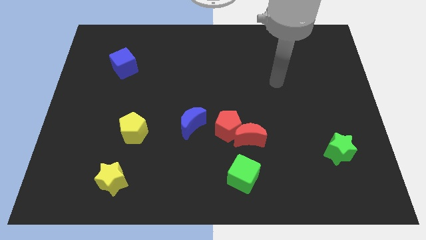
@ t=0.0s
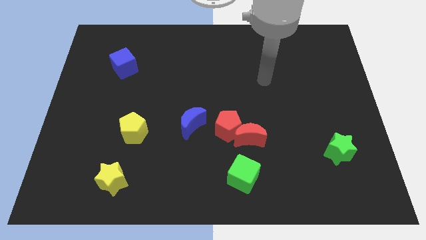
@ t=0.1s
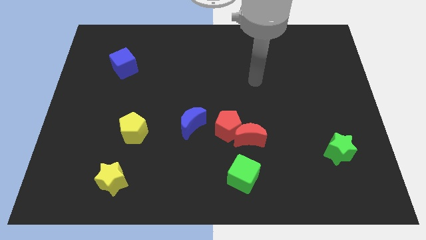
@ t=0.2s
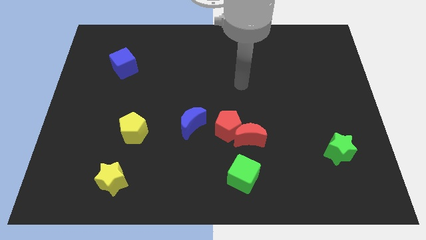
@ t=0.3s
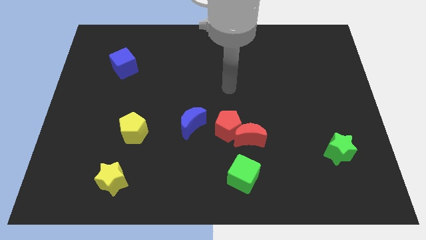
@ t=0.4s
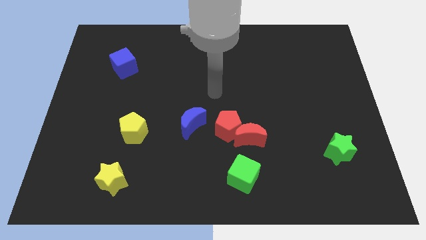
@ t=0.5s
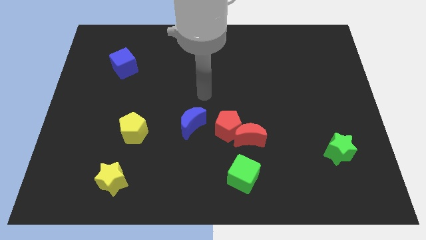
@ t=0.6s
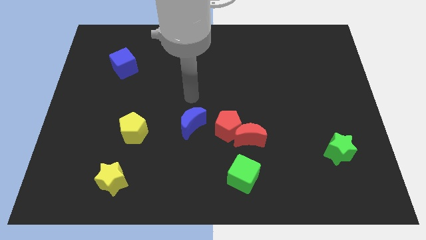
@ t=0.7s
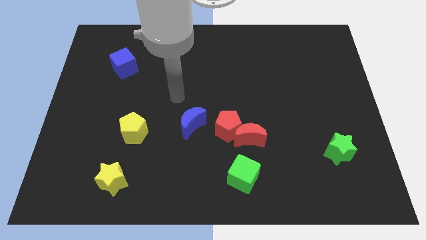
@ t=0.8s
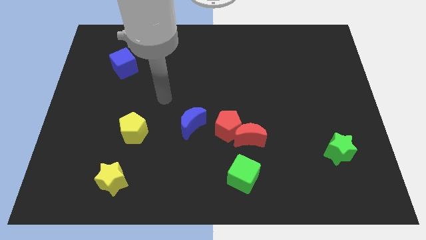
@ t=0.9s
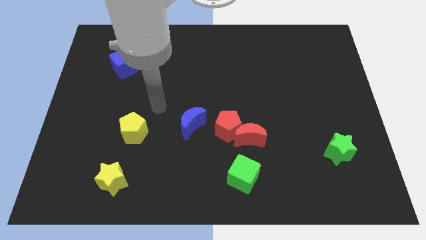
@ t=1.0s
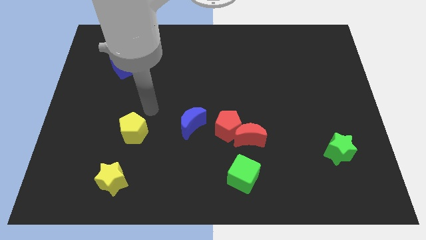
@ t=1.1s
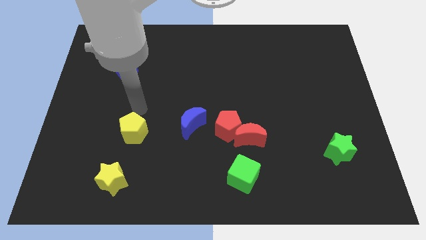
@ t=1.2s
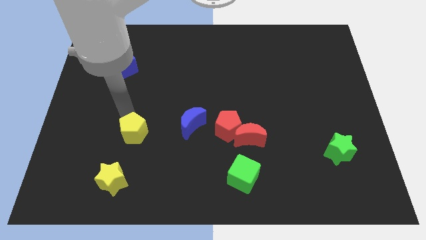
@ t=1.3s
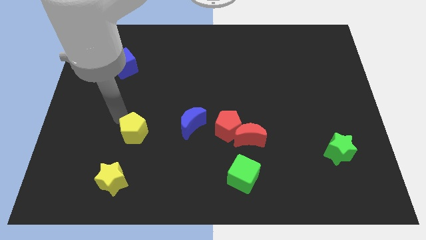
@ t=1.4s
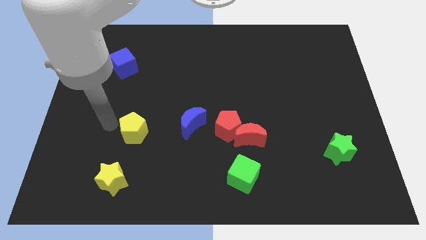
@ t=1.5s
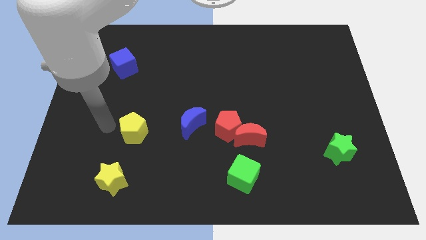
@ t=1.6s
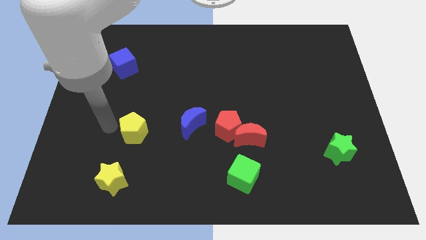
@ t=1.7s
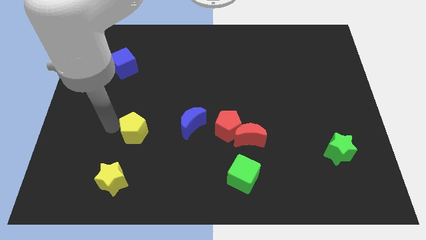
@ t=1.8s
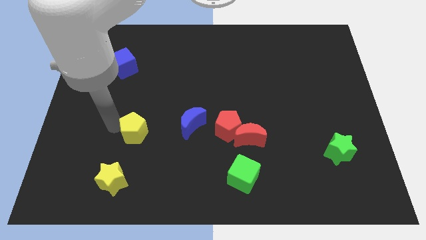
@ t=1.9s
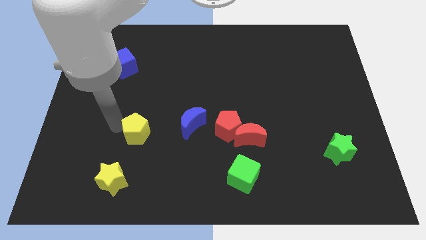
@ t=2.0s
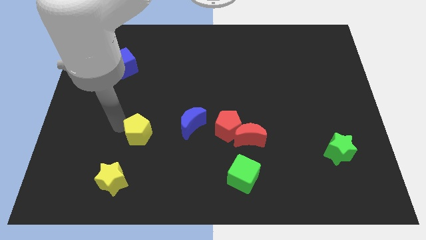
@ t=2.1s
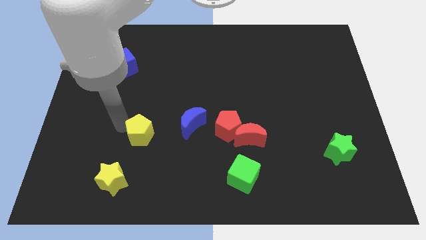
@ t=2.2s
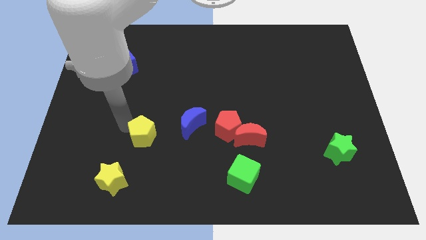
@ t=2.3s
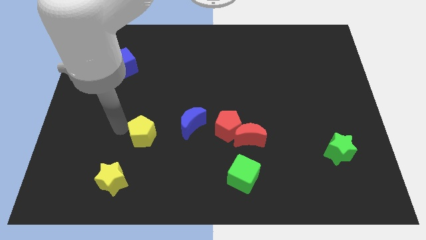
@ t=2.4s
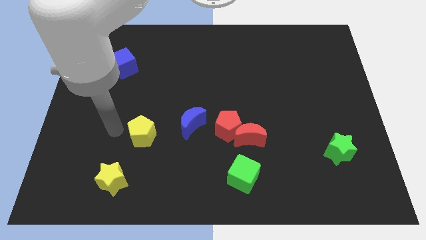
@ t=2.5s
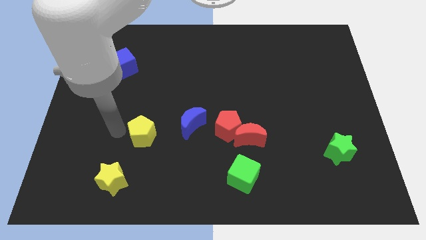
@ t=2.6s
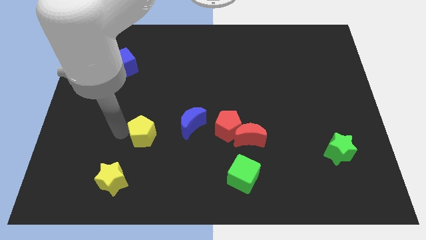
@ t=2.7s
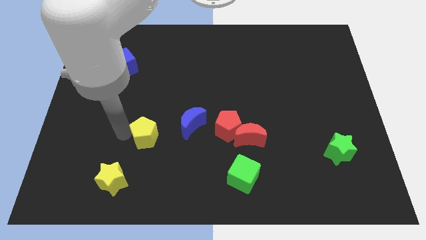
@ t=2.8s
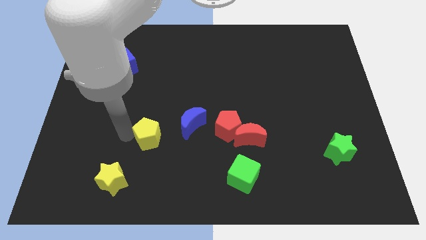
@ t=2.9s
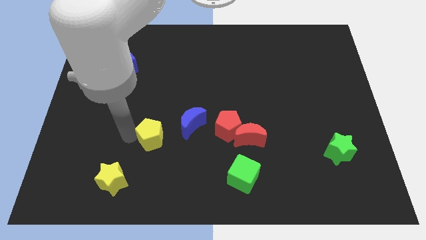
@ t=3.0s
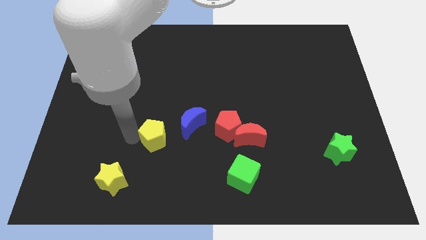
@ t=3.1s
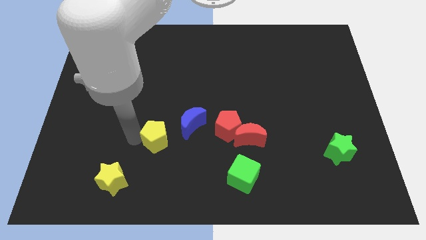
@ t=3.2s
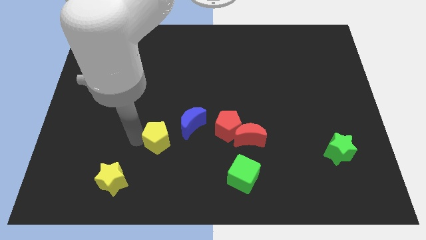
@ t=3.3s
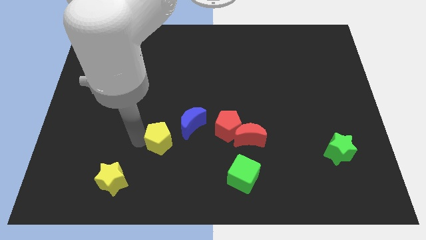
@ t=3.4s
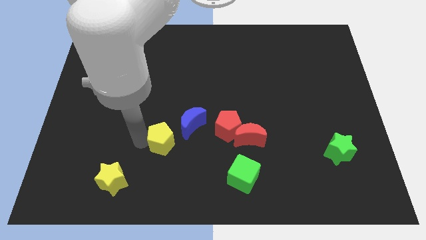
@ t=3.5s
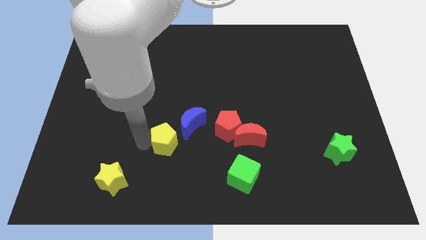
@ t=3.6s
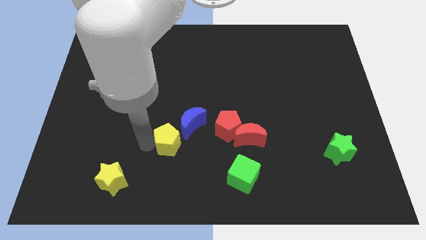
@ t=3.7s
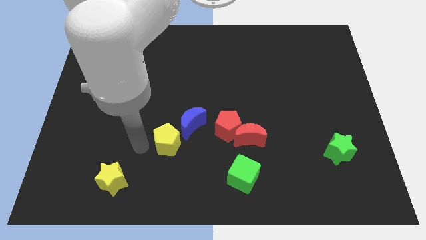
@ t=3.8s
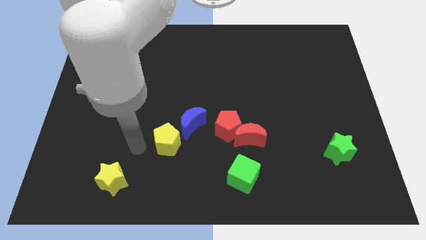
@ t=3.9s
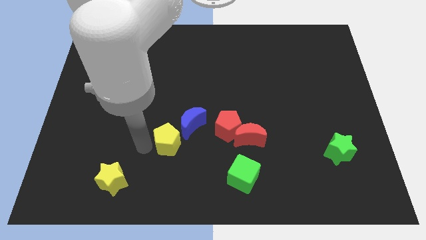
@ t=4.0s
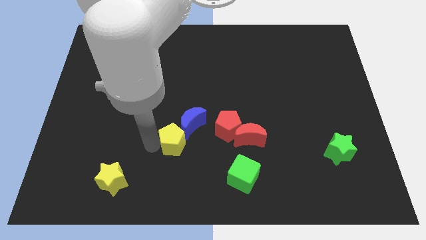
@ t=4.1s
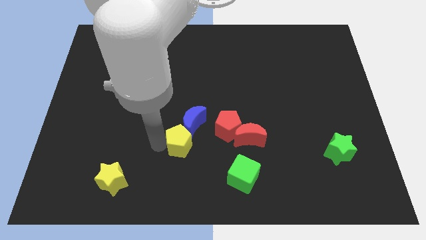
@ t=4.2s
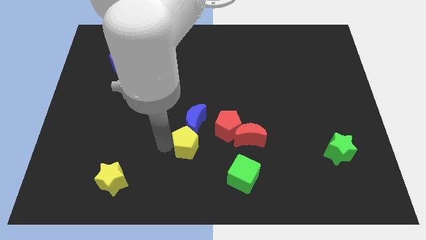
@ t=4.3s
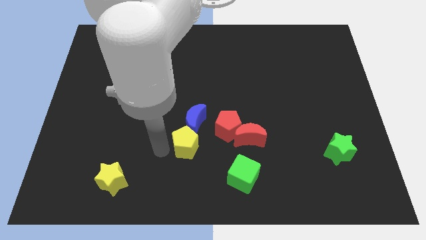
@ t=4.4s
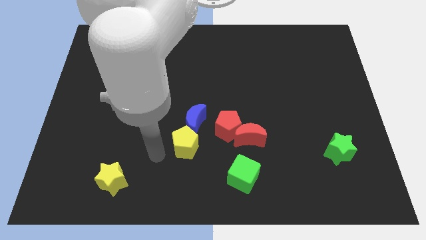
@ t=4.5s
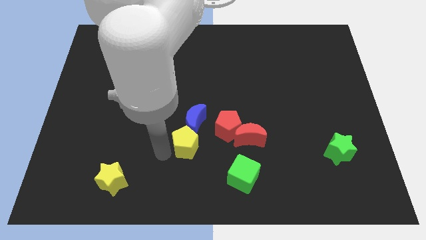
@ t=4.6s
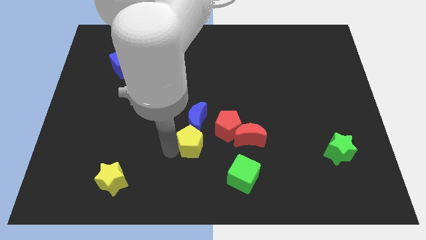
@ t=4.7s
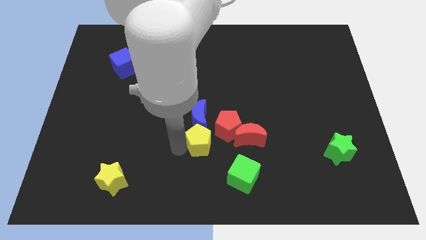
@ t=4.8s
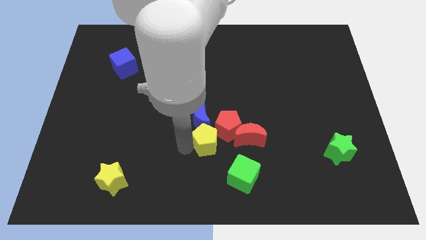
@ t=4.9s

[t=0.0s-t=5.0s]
move the yellow pentagon towards the red pentagon

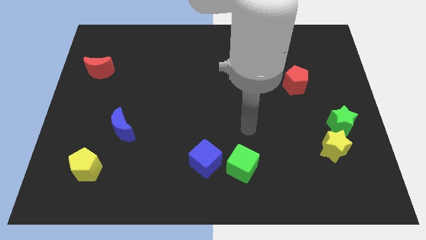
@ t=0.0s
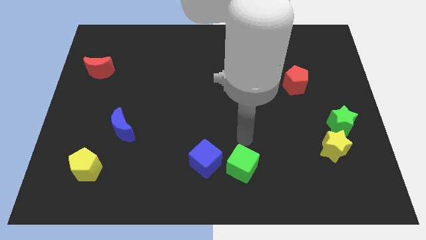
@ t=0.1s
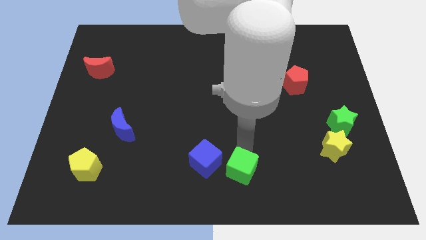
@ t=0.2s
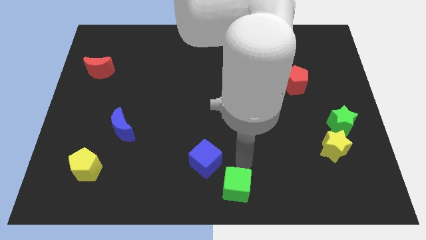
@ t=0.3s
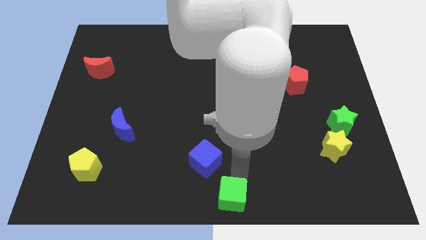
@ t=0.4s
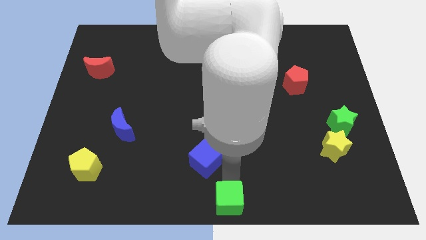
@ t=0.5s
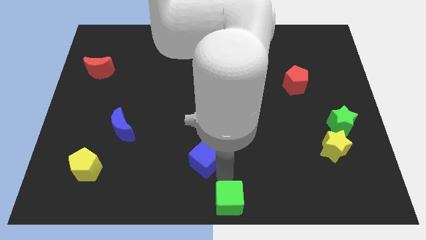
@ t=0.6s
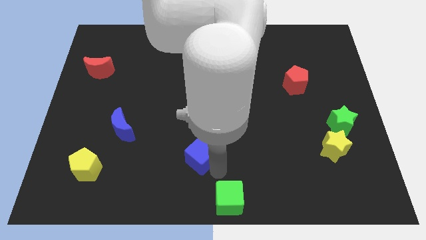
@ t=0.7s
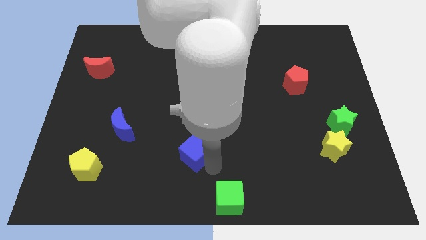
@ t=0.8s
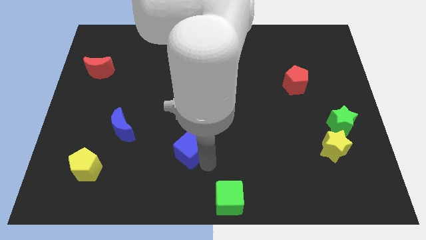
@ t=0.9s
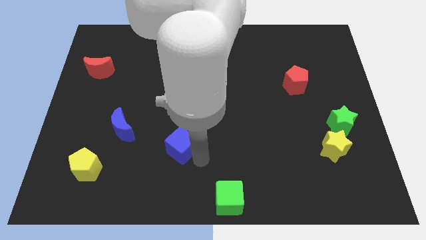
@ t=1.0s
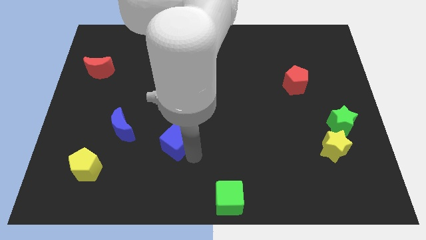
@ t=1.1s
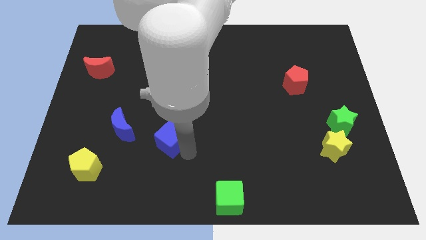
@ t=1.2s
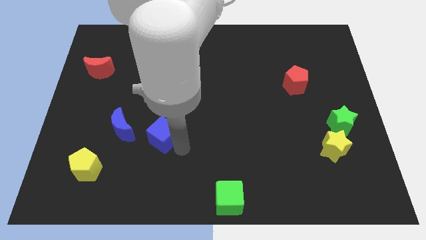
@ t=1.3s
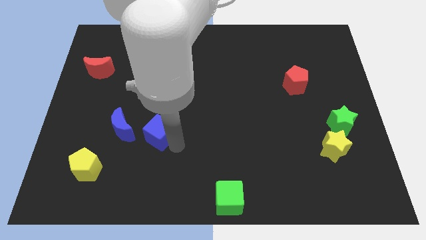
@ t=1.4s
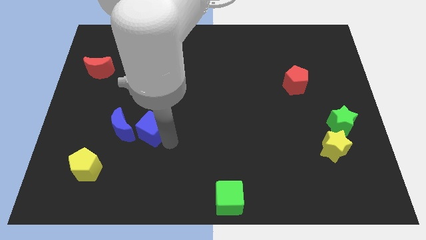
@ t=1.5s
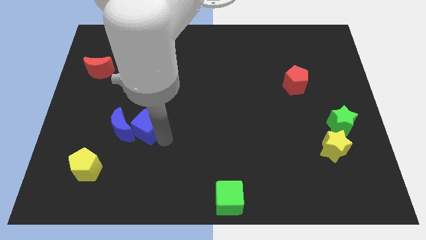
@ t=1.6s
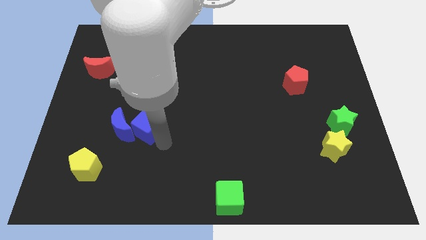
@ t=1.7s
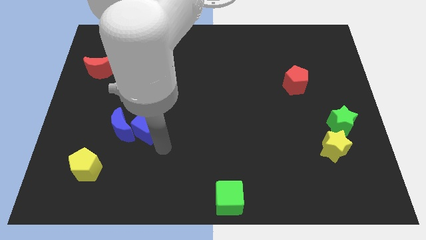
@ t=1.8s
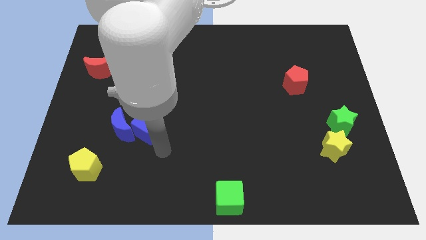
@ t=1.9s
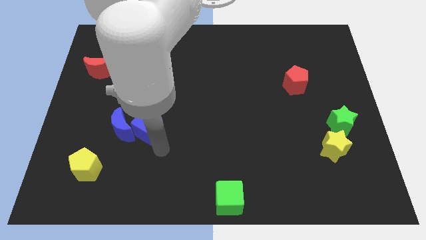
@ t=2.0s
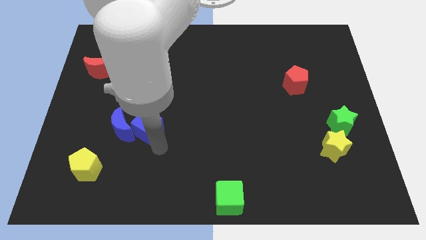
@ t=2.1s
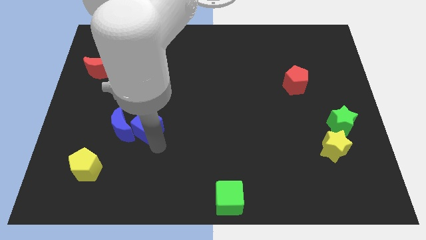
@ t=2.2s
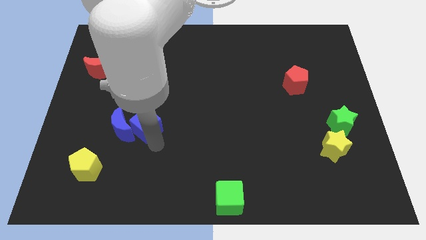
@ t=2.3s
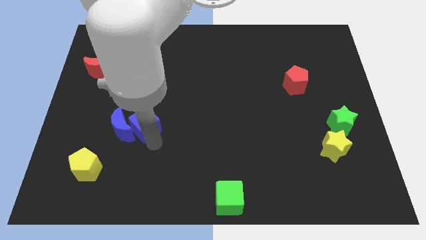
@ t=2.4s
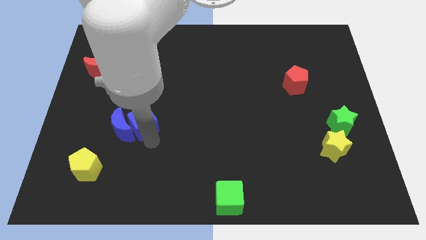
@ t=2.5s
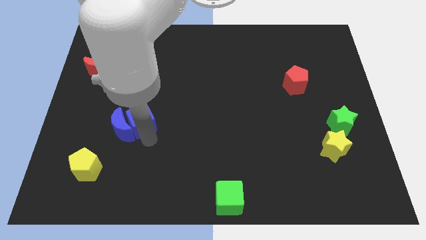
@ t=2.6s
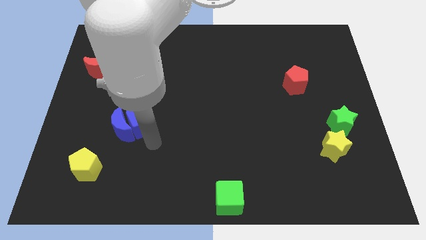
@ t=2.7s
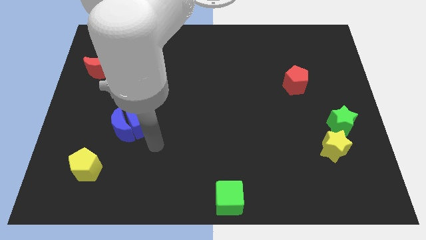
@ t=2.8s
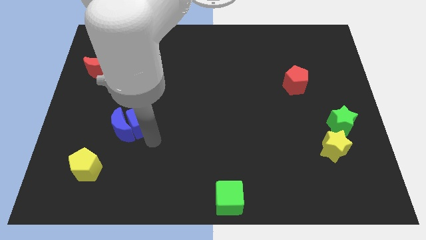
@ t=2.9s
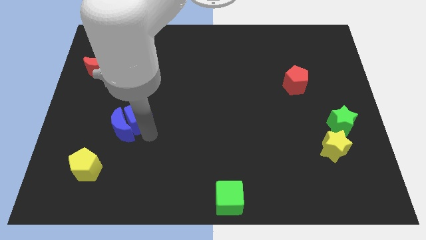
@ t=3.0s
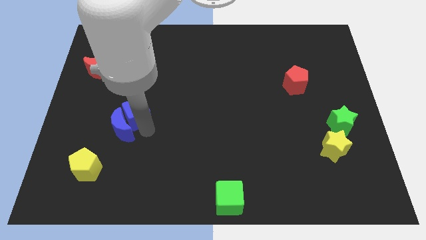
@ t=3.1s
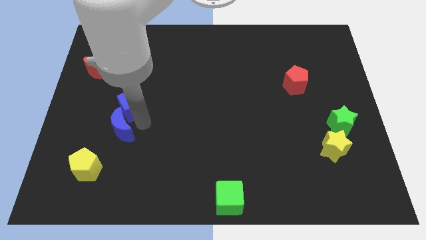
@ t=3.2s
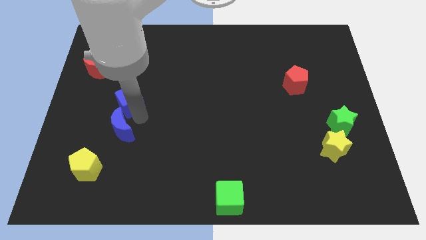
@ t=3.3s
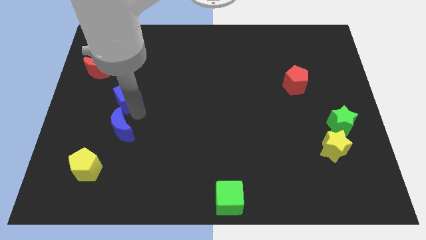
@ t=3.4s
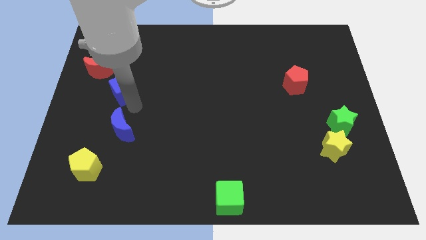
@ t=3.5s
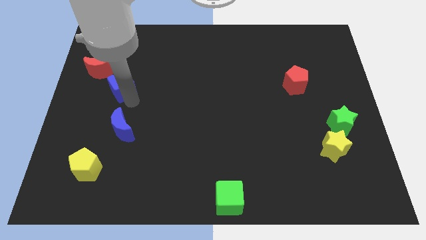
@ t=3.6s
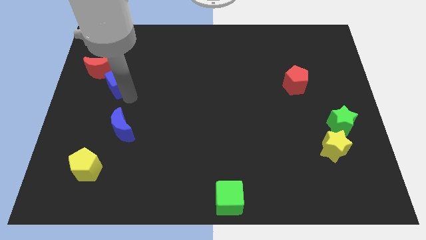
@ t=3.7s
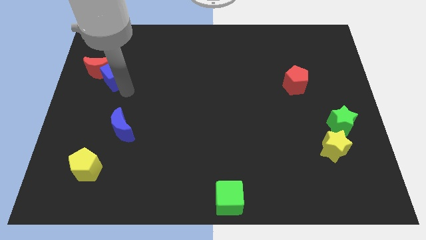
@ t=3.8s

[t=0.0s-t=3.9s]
slide the blue cube close to the red moon
